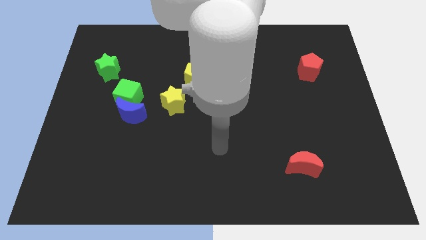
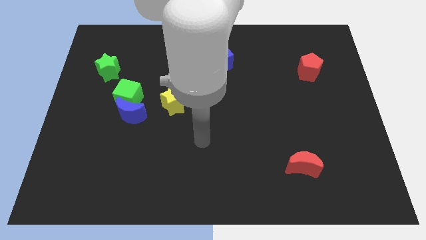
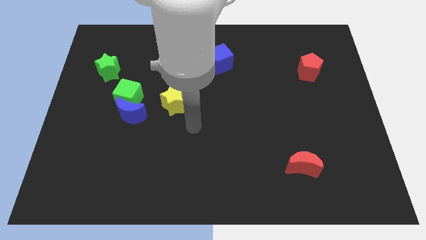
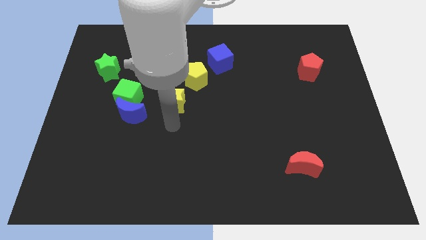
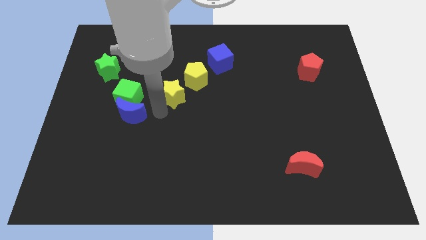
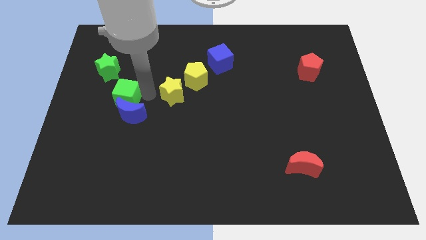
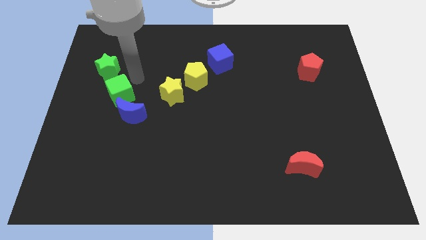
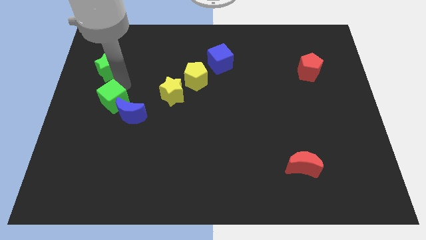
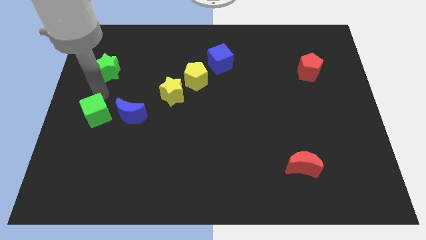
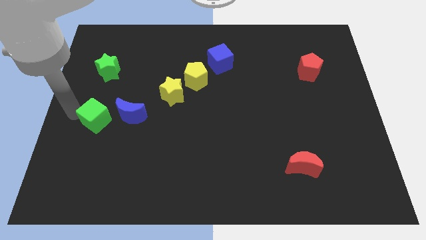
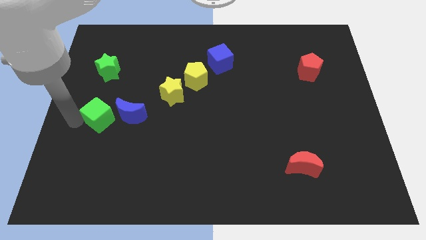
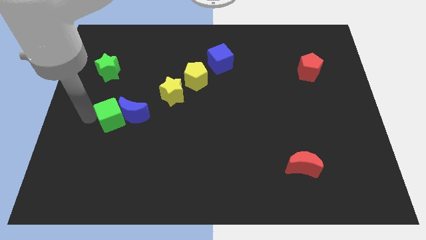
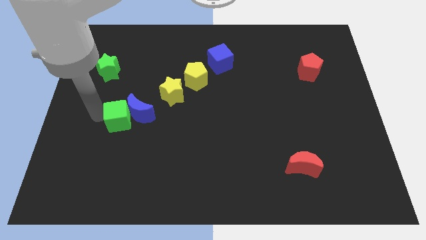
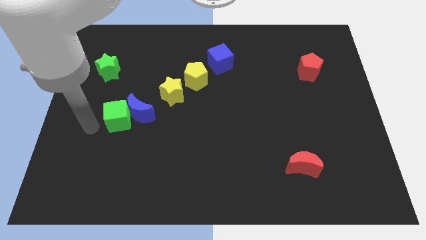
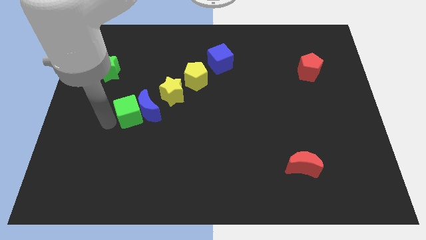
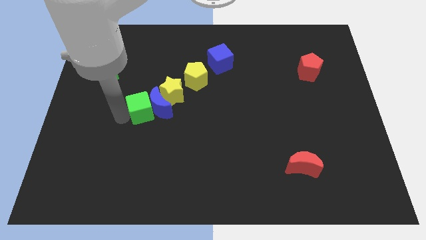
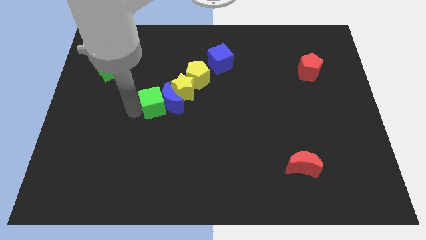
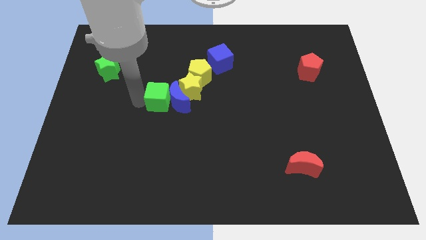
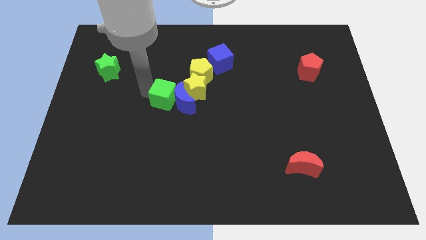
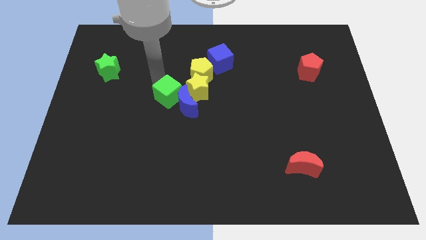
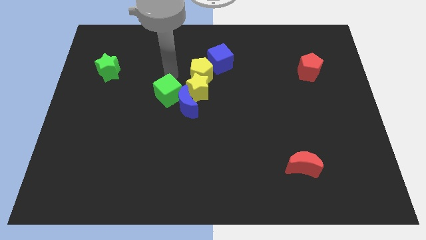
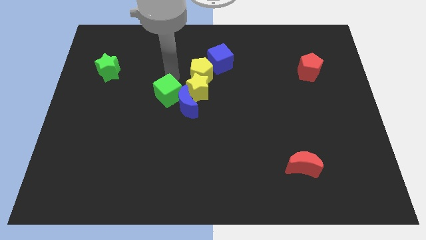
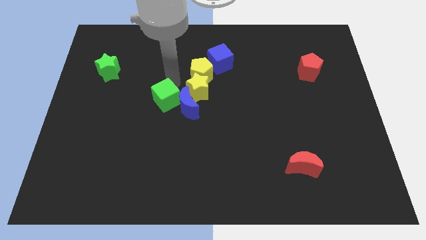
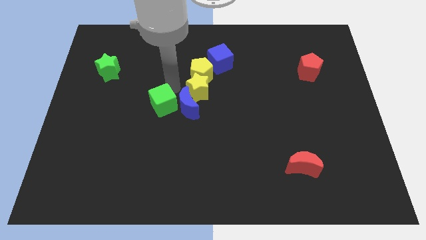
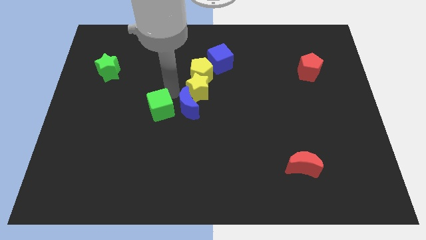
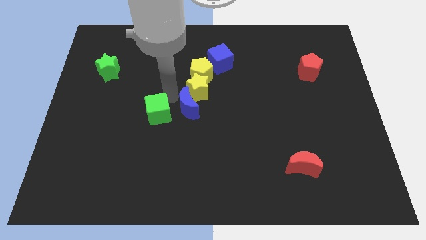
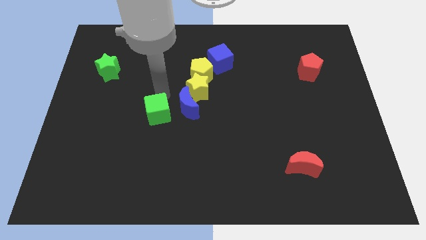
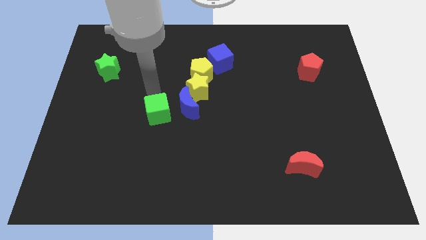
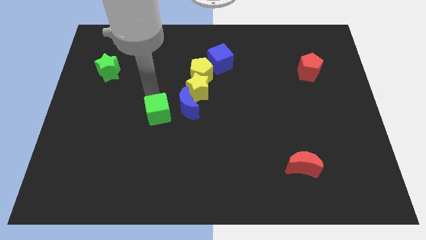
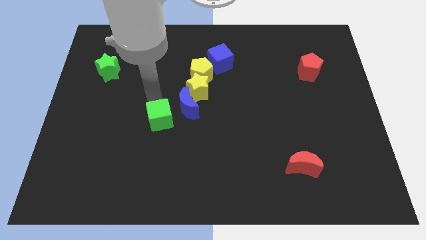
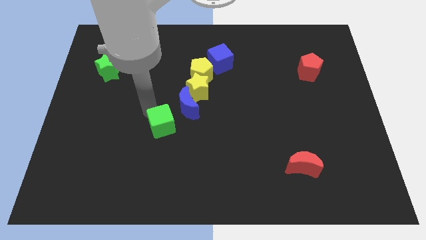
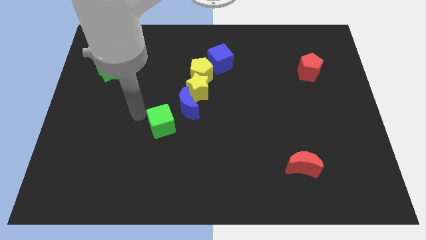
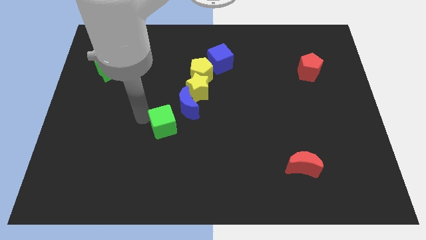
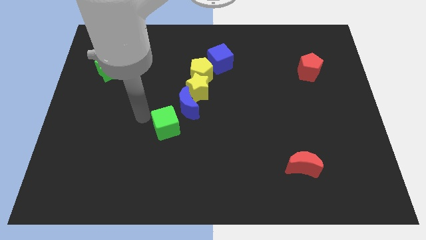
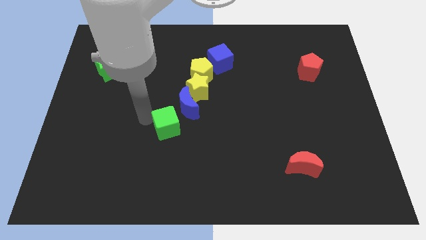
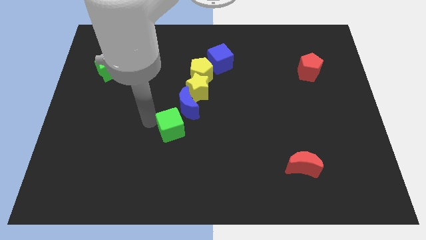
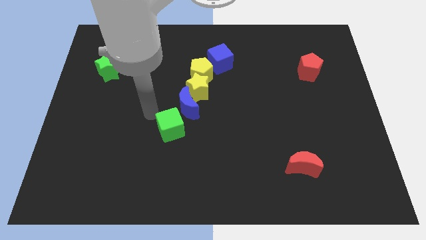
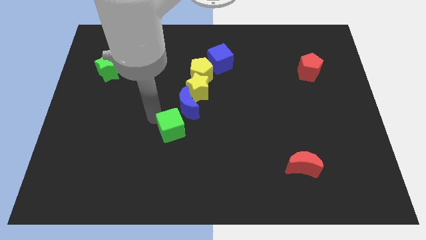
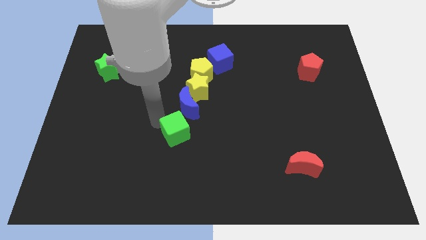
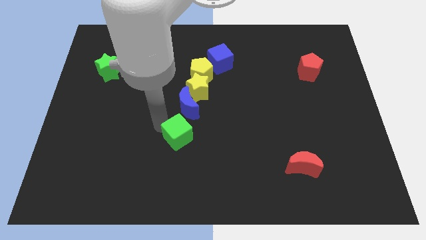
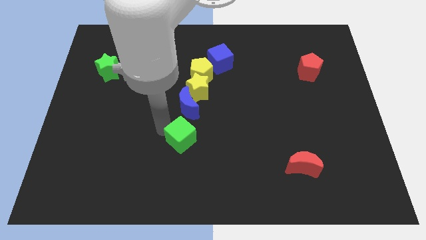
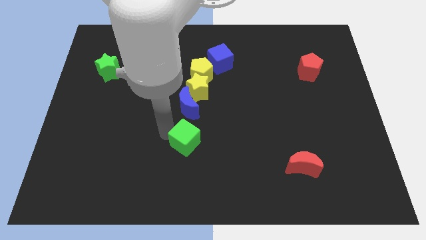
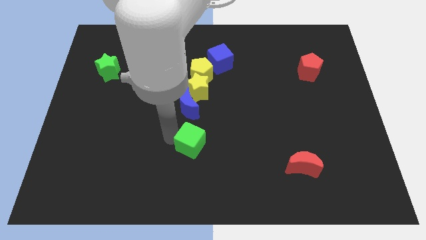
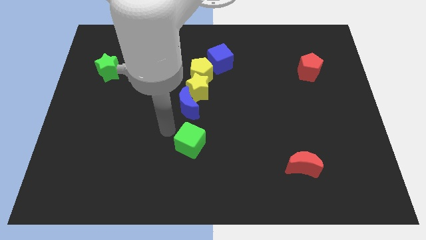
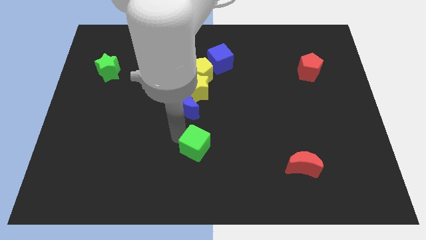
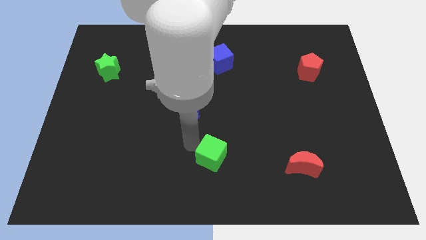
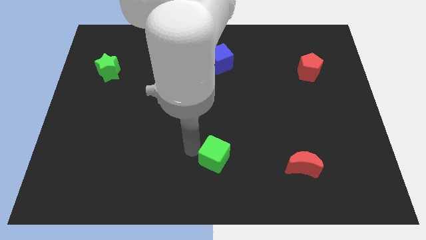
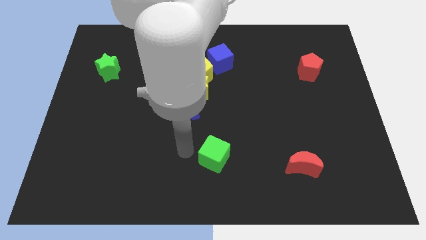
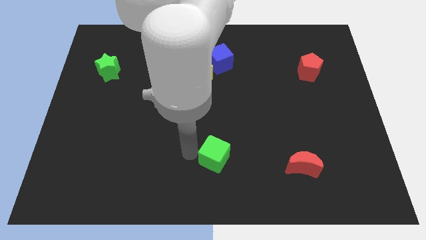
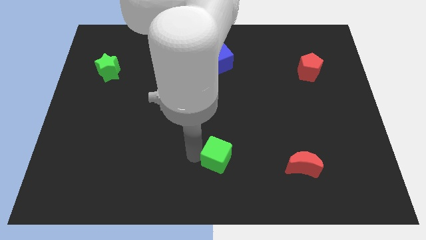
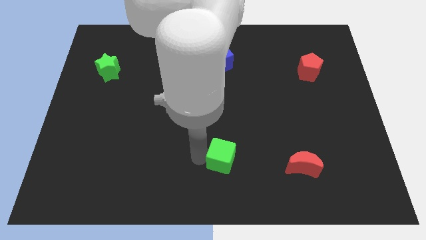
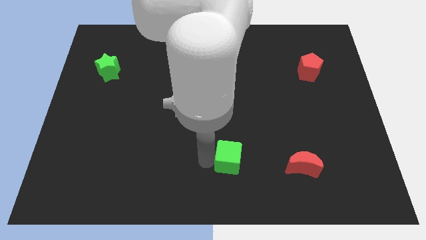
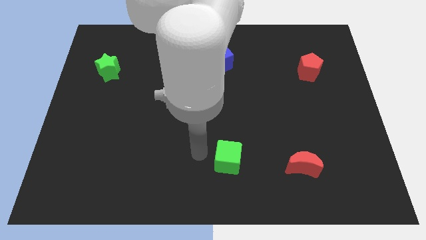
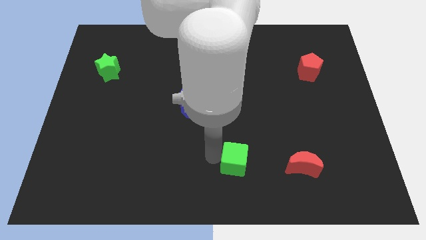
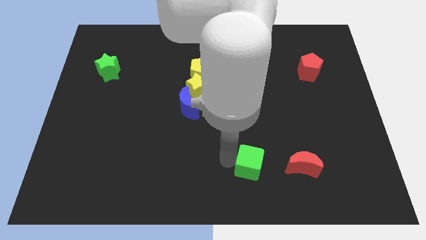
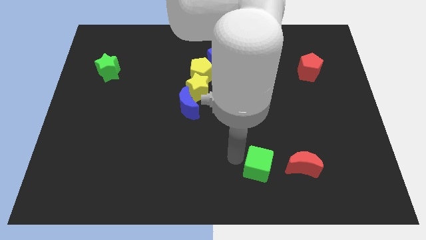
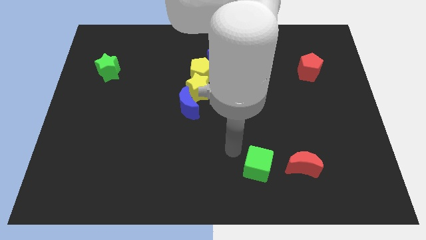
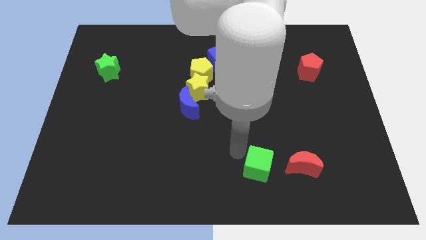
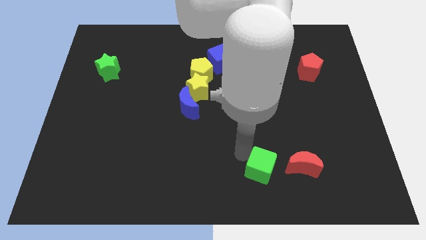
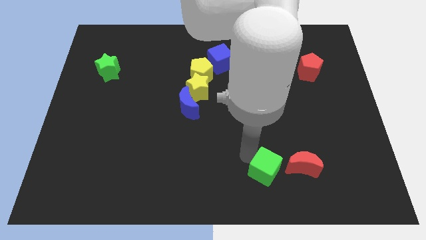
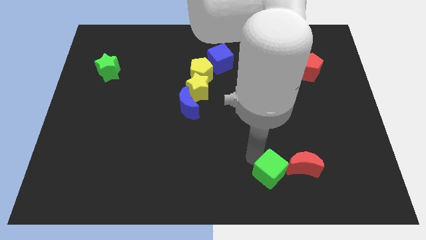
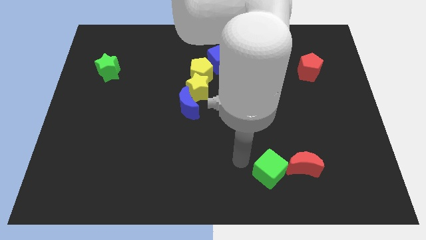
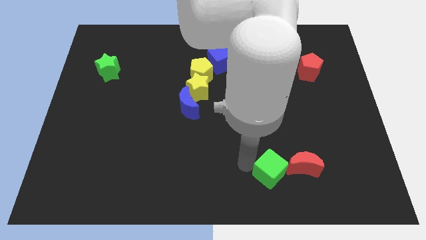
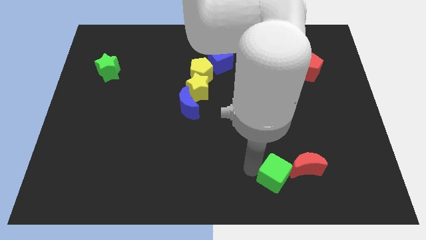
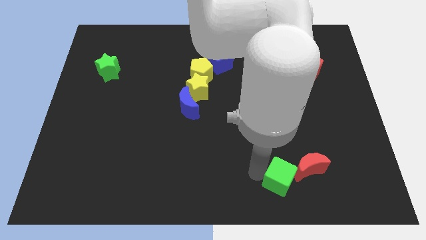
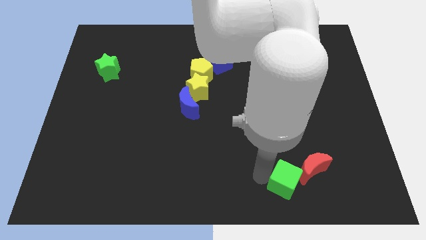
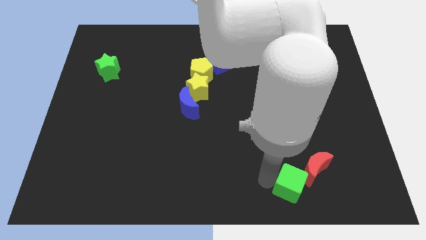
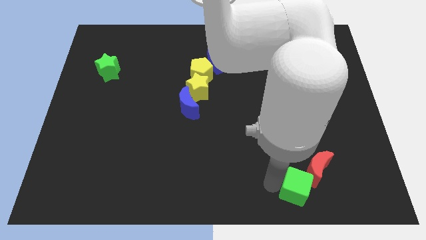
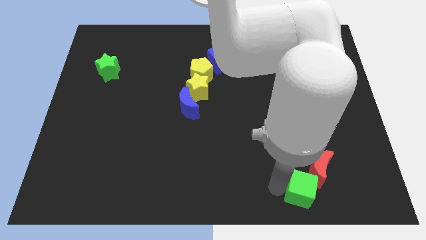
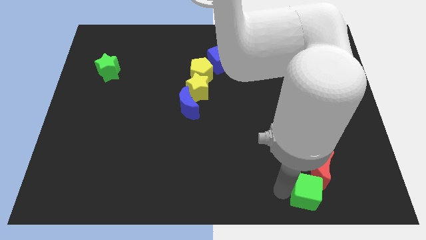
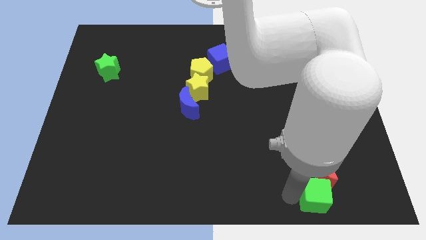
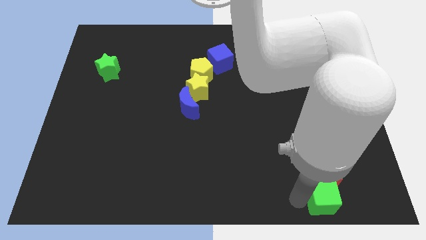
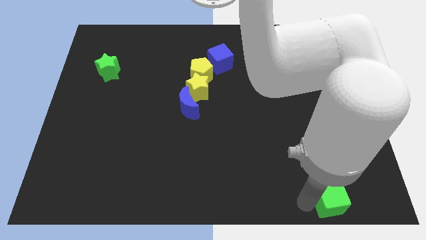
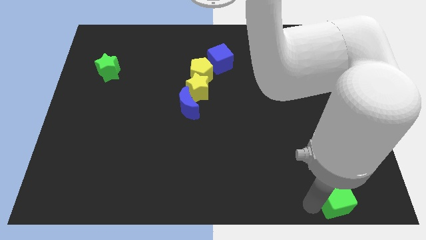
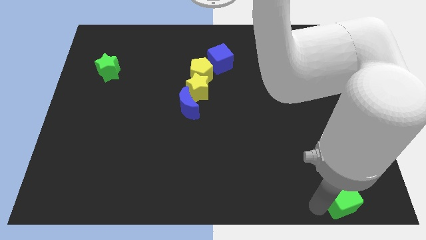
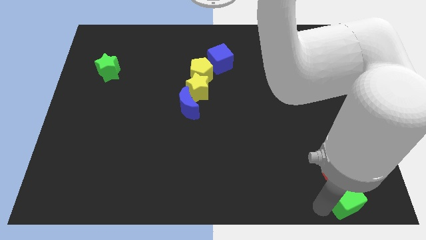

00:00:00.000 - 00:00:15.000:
move the green cube to the lower right corner
